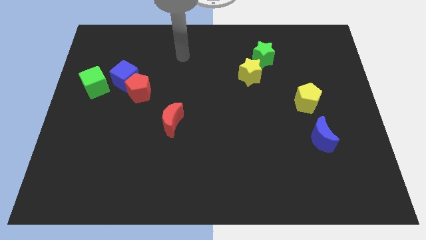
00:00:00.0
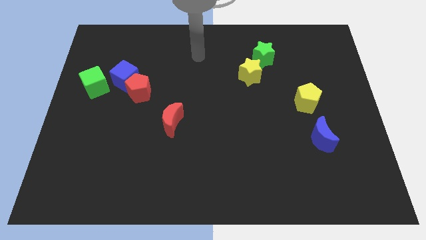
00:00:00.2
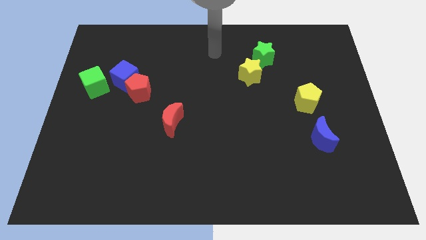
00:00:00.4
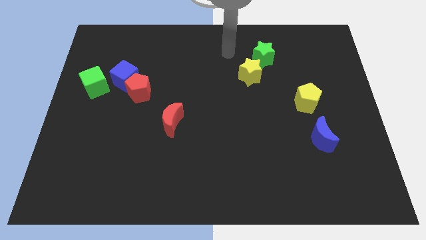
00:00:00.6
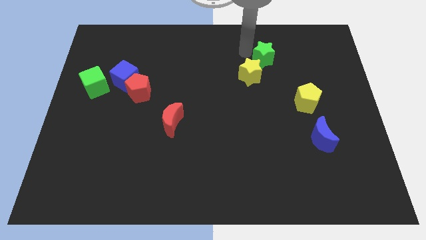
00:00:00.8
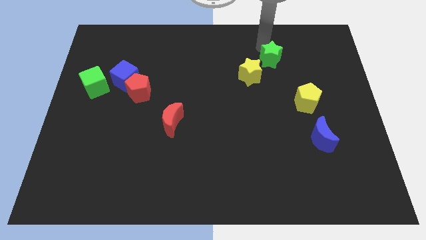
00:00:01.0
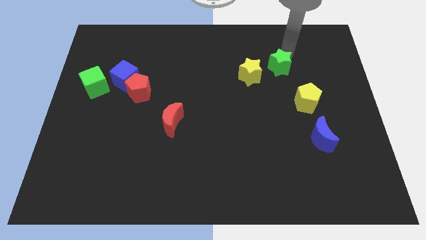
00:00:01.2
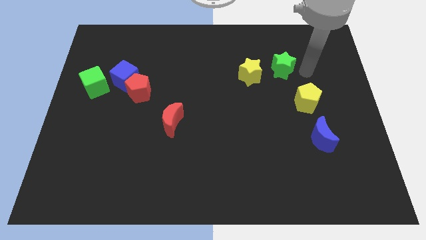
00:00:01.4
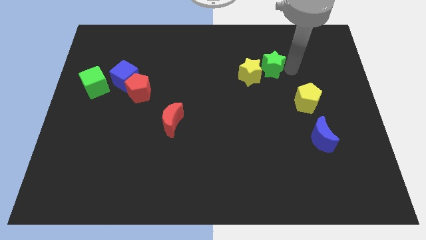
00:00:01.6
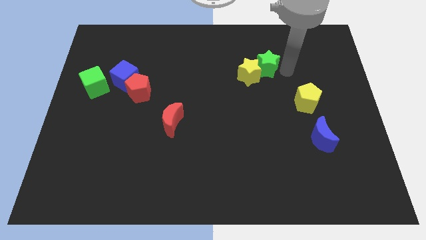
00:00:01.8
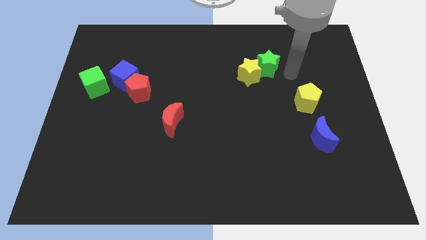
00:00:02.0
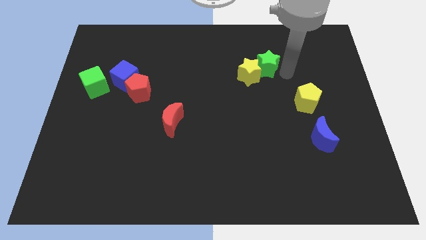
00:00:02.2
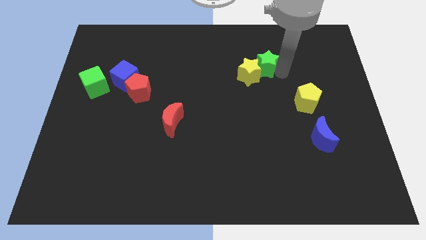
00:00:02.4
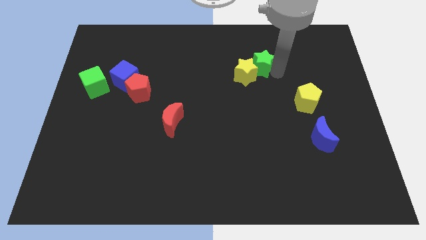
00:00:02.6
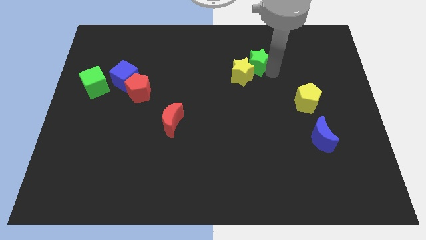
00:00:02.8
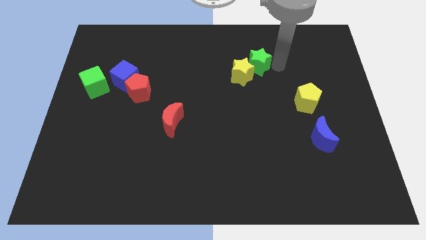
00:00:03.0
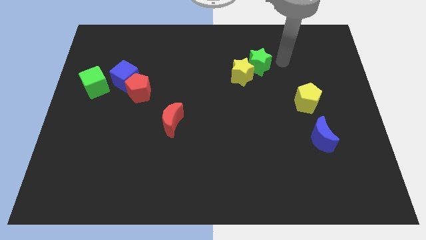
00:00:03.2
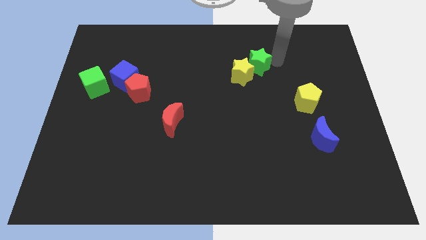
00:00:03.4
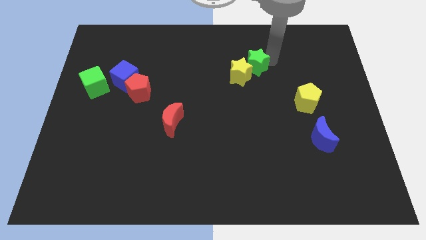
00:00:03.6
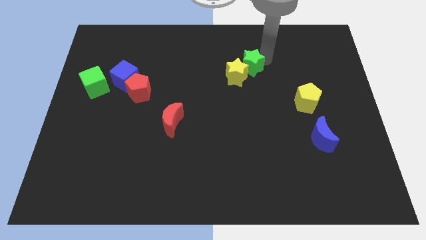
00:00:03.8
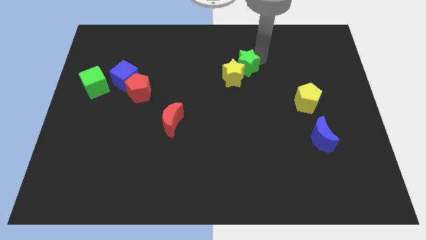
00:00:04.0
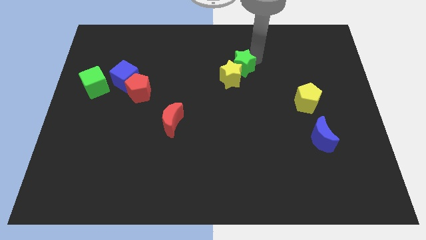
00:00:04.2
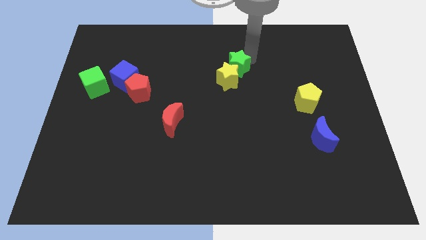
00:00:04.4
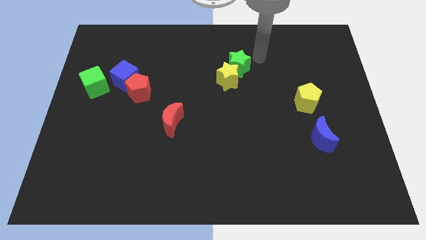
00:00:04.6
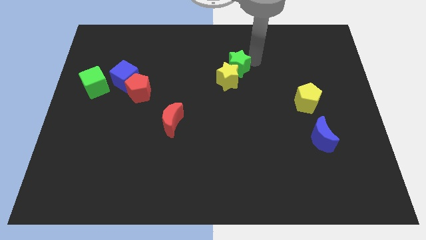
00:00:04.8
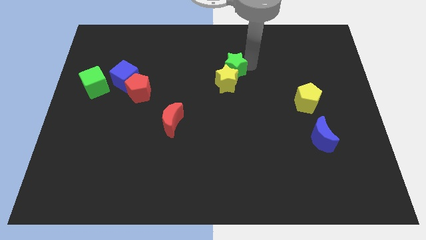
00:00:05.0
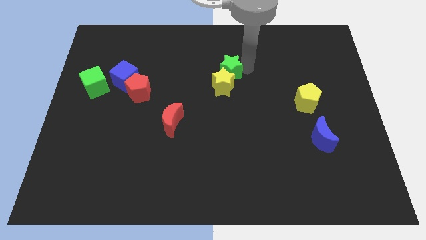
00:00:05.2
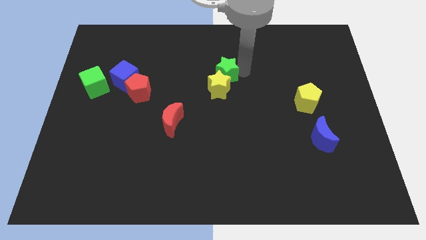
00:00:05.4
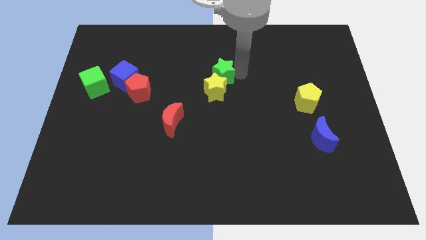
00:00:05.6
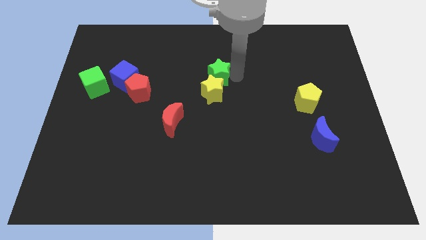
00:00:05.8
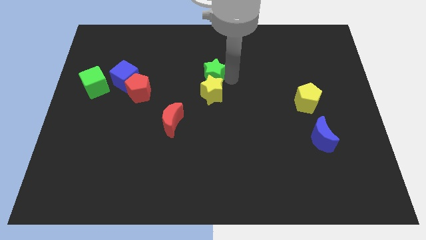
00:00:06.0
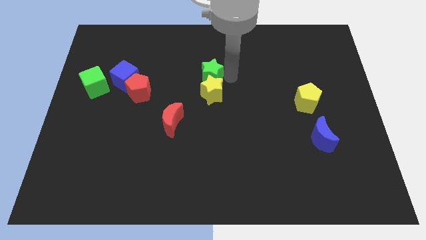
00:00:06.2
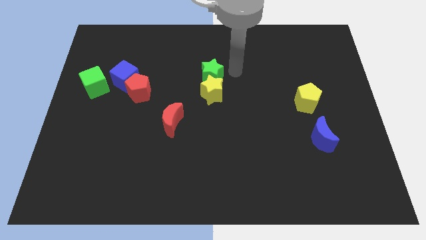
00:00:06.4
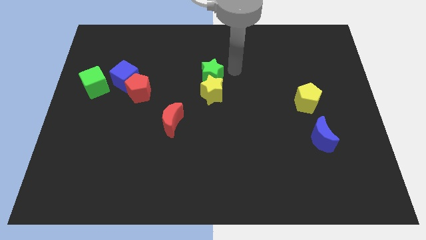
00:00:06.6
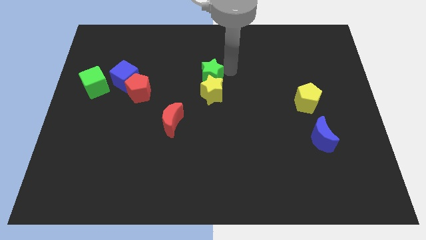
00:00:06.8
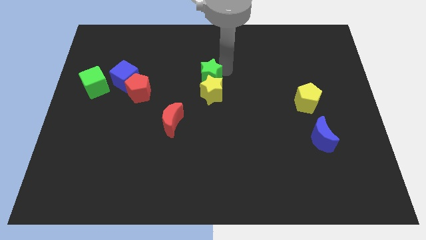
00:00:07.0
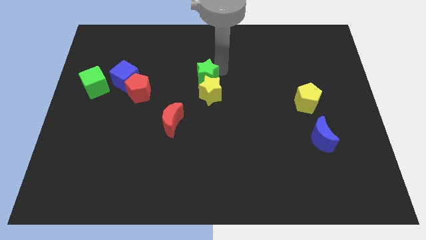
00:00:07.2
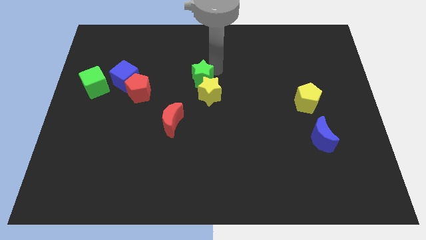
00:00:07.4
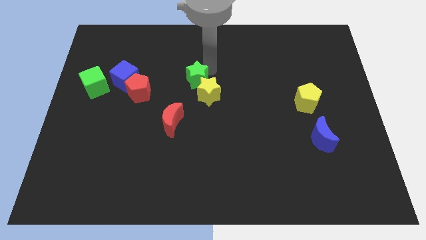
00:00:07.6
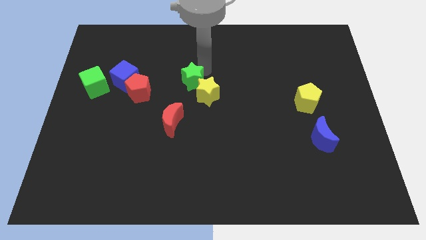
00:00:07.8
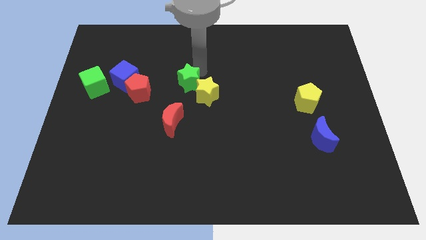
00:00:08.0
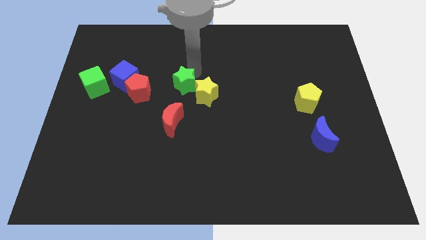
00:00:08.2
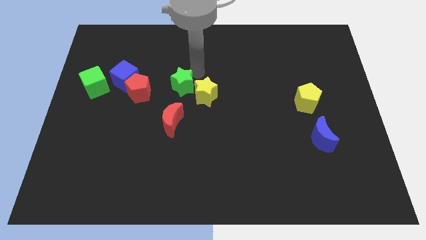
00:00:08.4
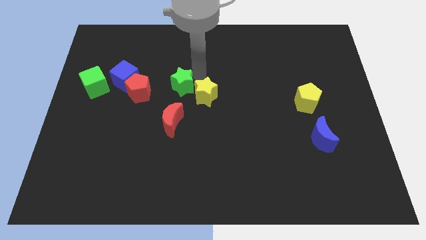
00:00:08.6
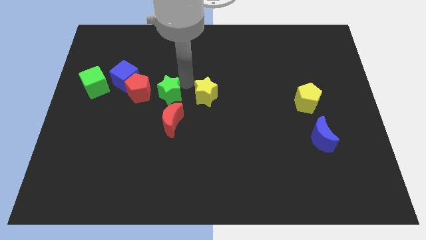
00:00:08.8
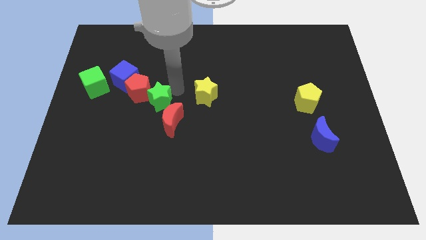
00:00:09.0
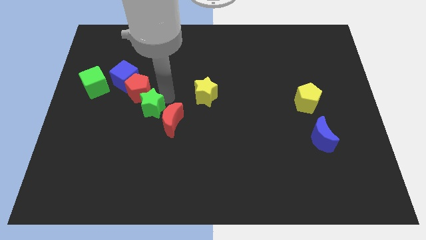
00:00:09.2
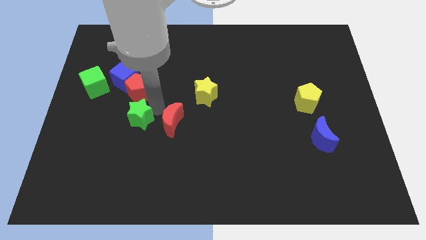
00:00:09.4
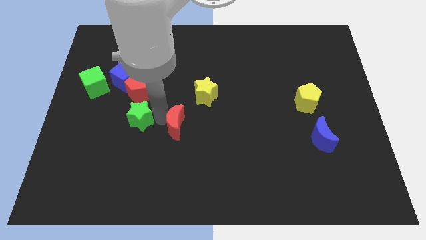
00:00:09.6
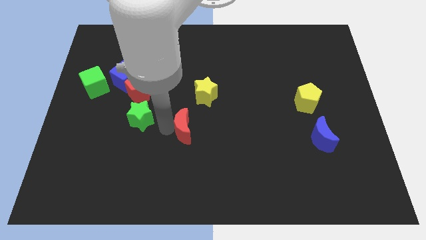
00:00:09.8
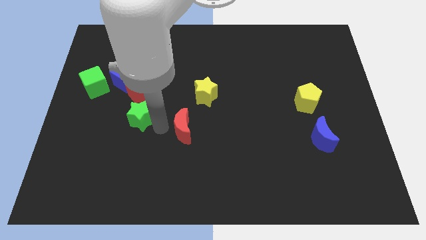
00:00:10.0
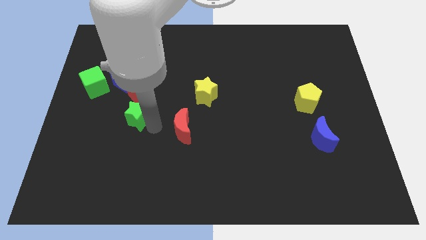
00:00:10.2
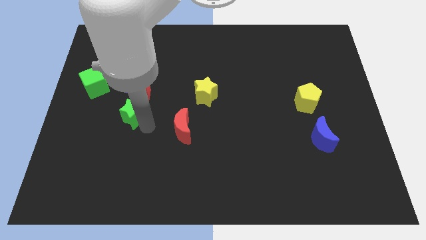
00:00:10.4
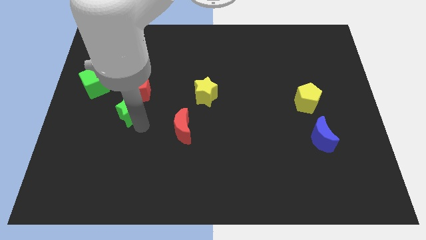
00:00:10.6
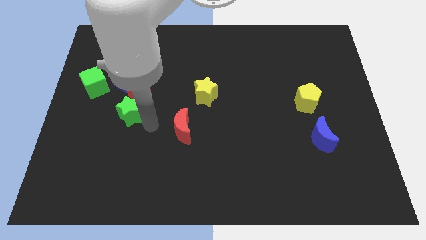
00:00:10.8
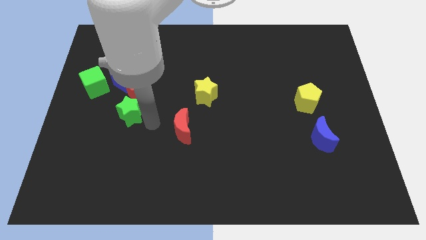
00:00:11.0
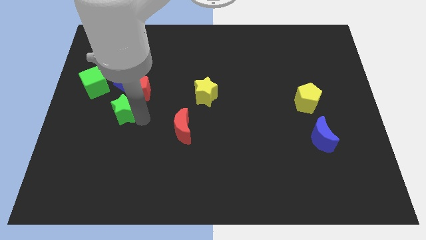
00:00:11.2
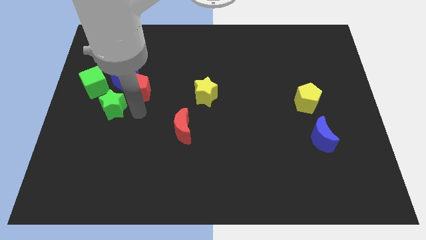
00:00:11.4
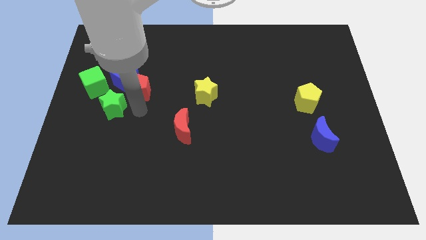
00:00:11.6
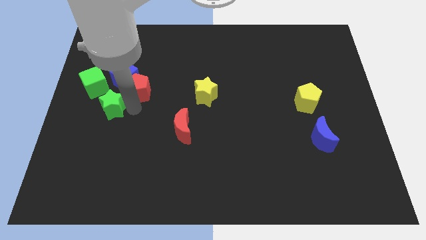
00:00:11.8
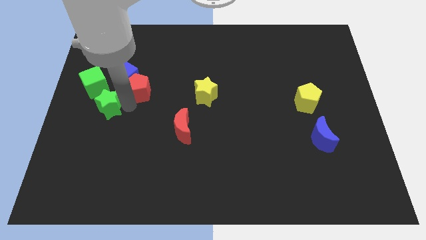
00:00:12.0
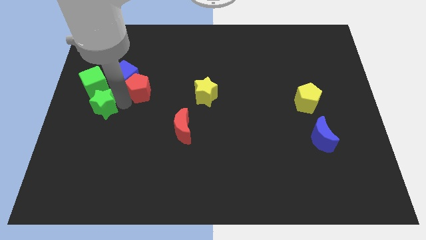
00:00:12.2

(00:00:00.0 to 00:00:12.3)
push the green star to the left side of the board
